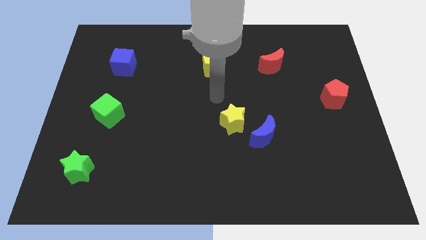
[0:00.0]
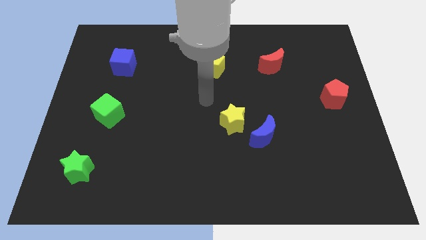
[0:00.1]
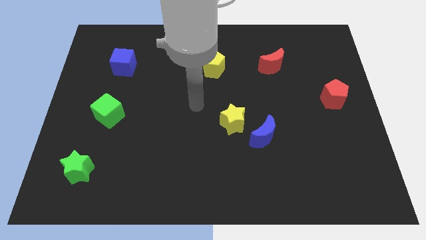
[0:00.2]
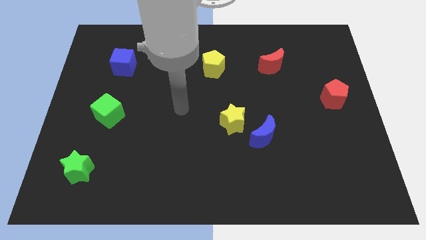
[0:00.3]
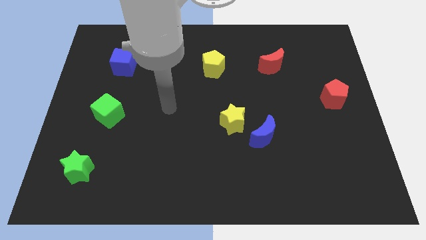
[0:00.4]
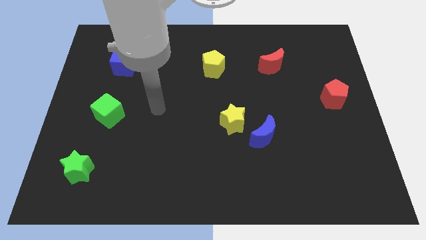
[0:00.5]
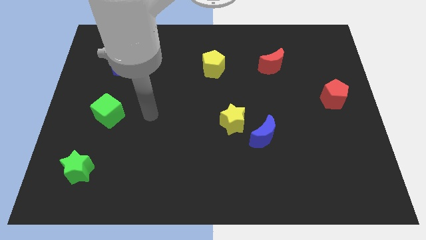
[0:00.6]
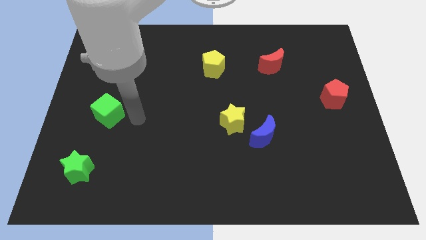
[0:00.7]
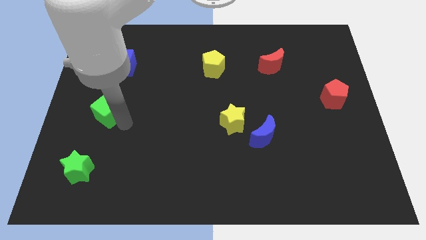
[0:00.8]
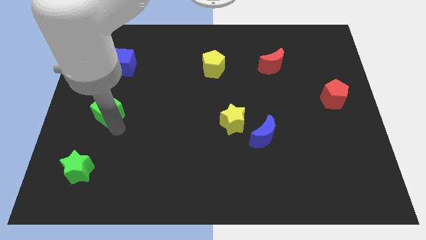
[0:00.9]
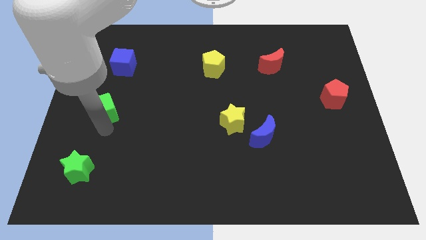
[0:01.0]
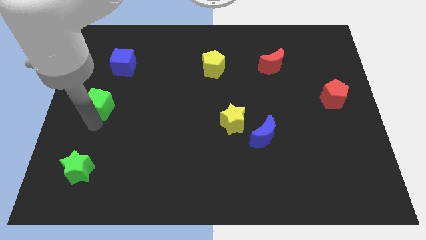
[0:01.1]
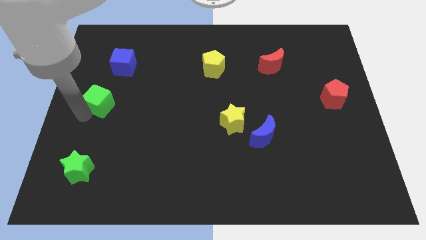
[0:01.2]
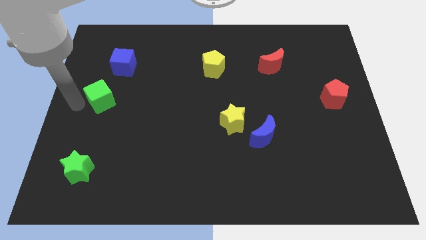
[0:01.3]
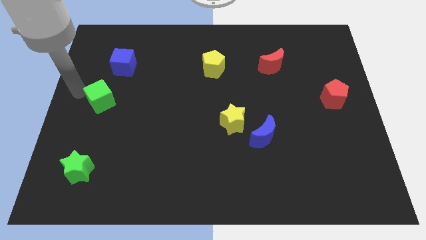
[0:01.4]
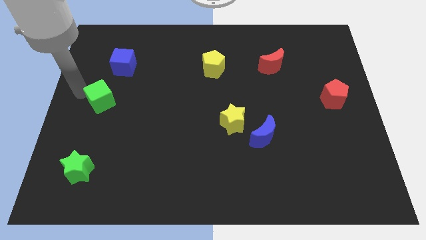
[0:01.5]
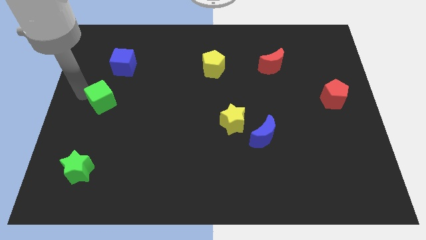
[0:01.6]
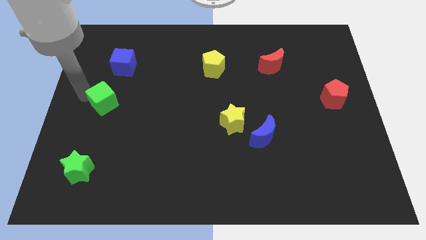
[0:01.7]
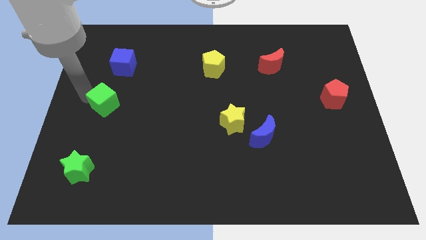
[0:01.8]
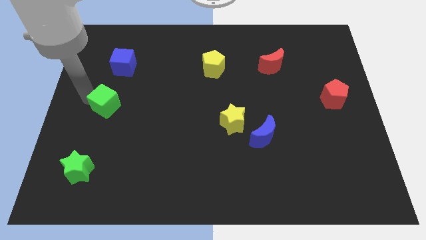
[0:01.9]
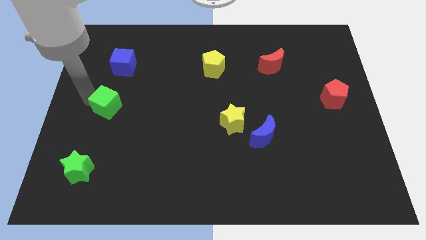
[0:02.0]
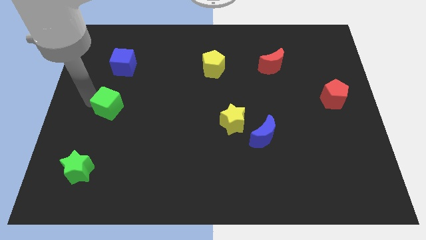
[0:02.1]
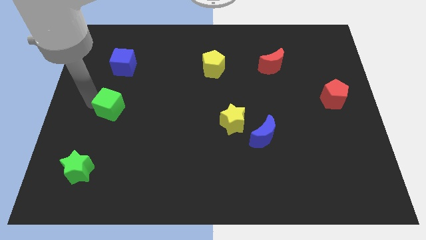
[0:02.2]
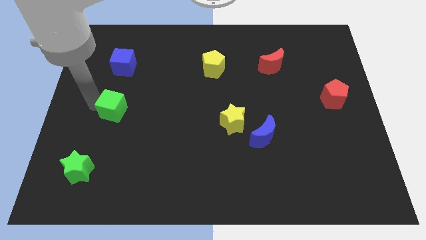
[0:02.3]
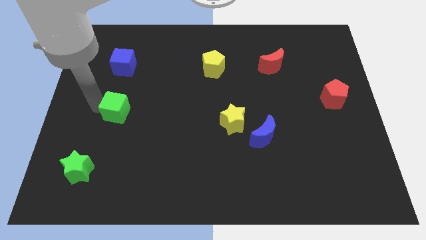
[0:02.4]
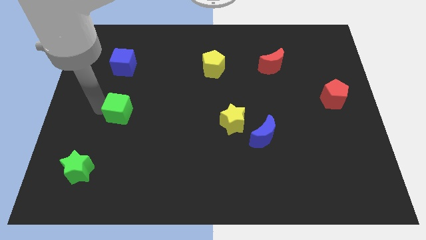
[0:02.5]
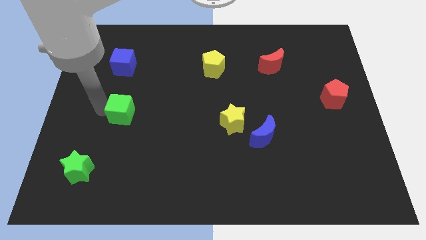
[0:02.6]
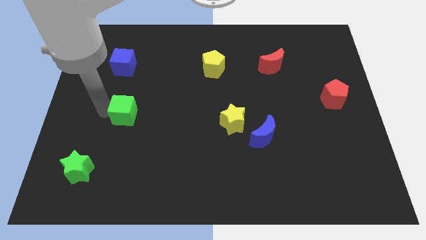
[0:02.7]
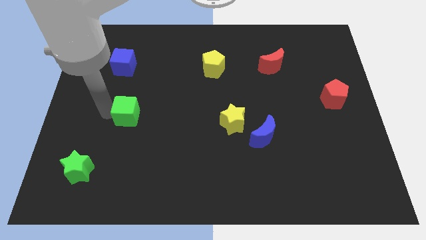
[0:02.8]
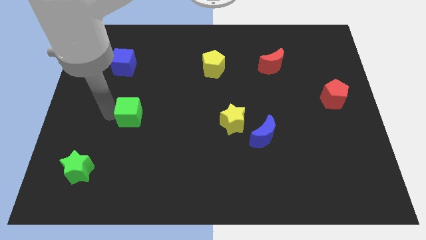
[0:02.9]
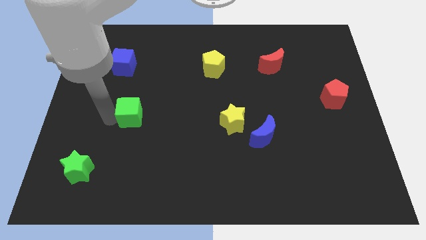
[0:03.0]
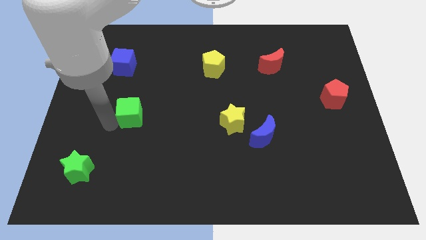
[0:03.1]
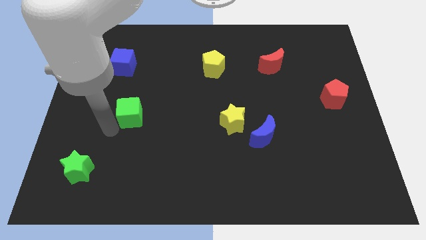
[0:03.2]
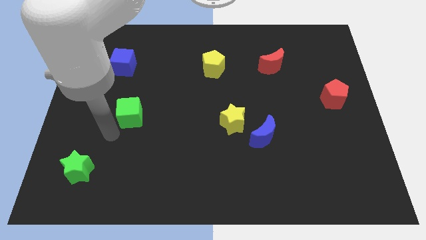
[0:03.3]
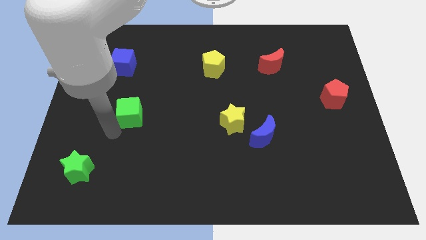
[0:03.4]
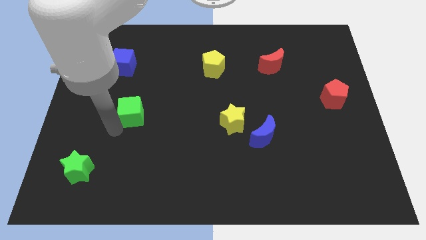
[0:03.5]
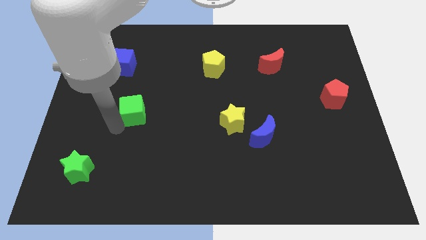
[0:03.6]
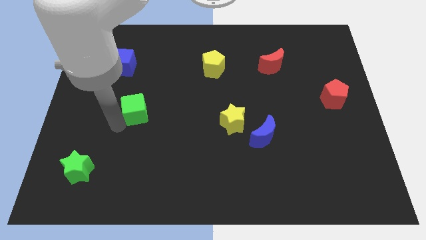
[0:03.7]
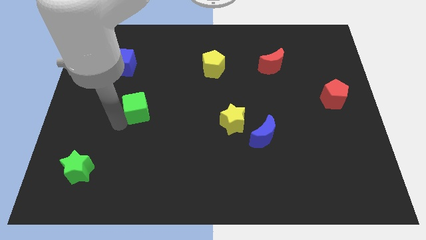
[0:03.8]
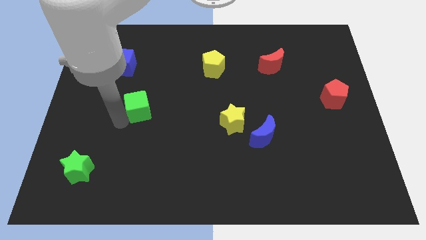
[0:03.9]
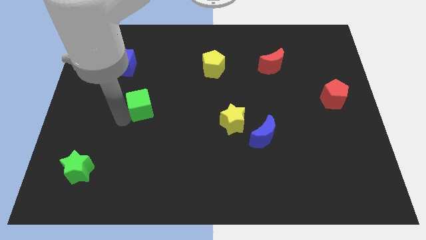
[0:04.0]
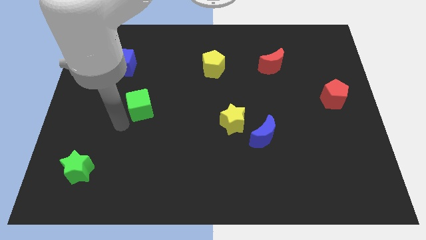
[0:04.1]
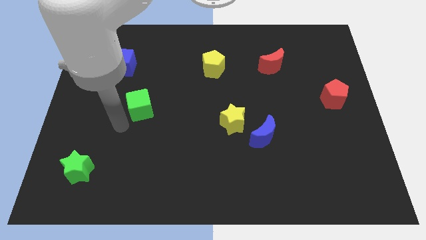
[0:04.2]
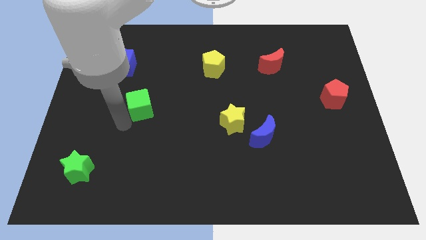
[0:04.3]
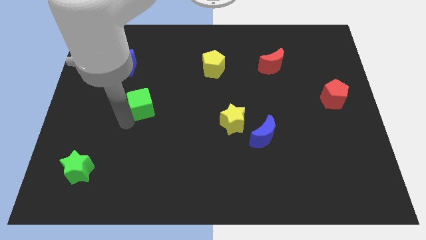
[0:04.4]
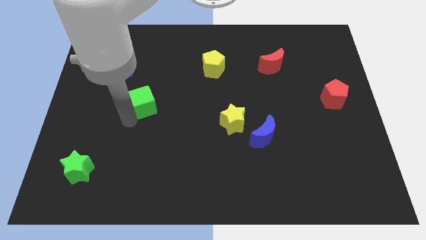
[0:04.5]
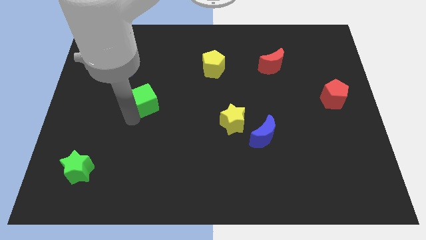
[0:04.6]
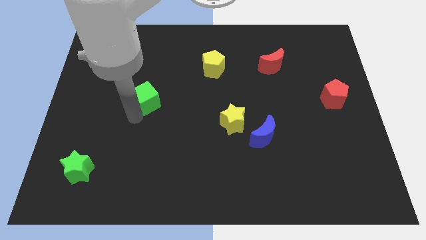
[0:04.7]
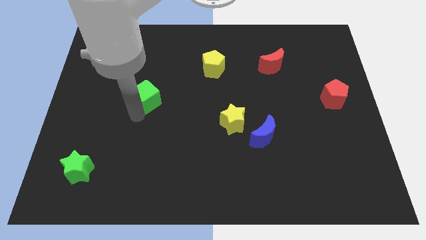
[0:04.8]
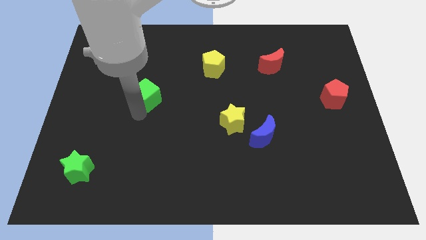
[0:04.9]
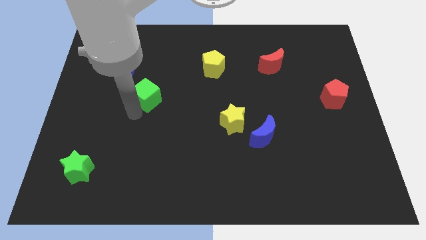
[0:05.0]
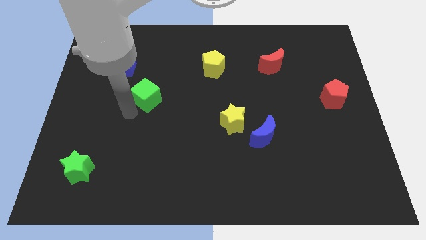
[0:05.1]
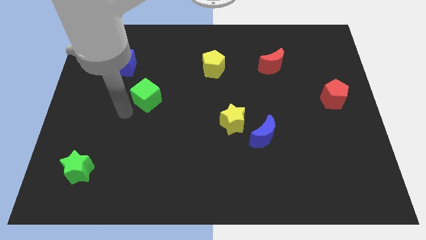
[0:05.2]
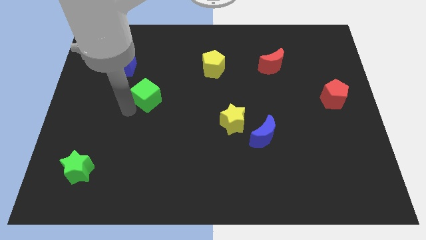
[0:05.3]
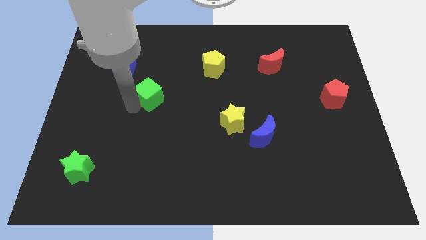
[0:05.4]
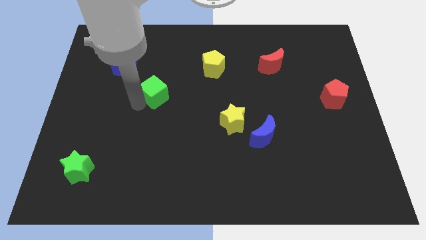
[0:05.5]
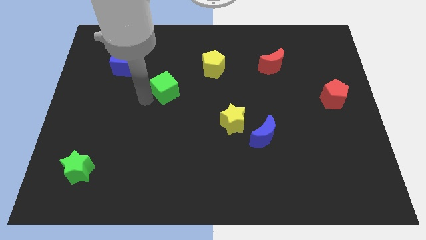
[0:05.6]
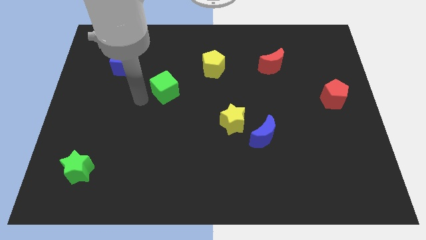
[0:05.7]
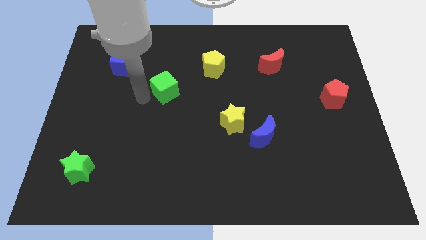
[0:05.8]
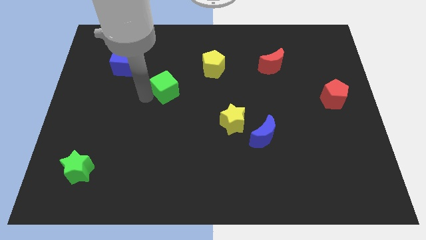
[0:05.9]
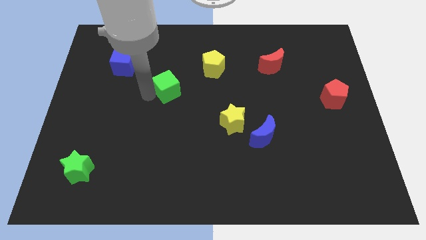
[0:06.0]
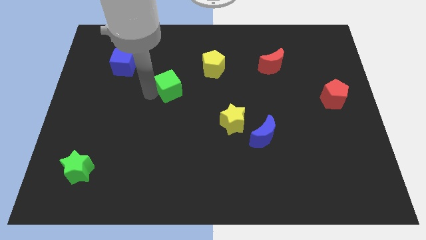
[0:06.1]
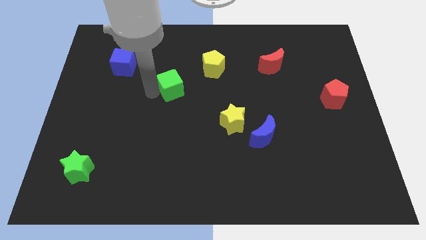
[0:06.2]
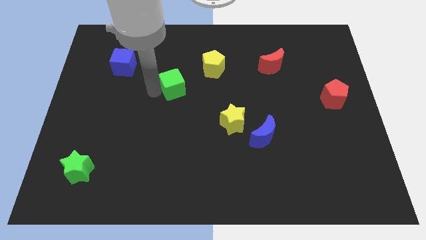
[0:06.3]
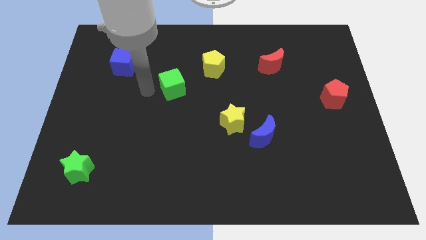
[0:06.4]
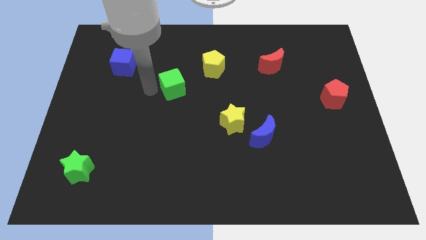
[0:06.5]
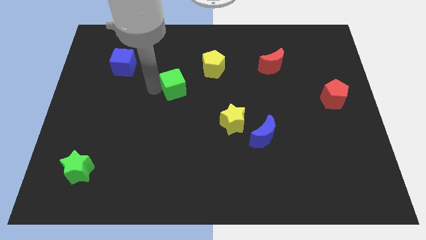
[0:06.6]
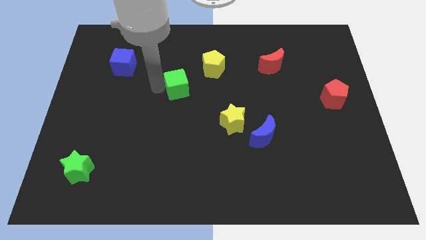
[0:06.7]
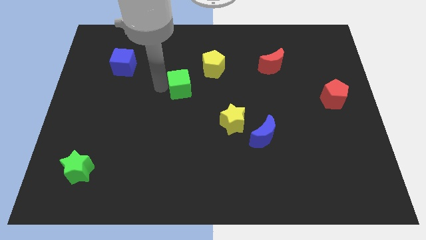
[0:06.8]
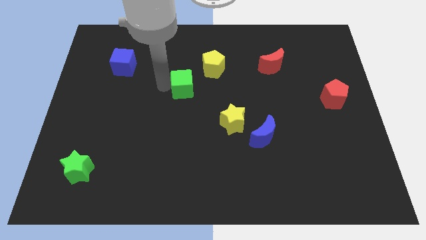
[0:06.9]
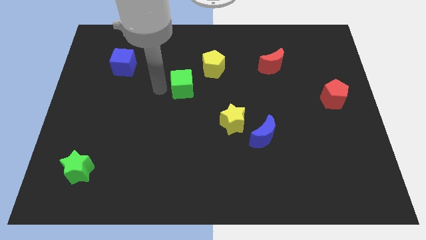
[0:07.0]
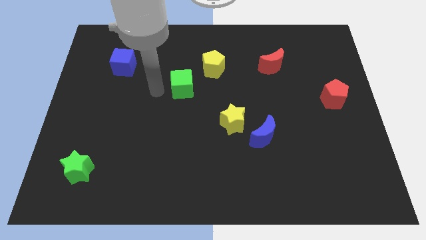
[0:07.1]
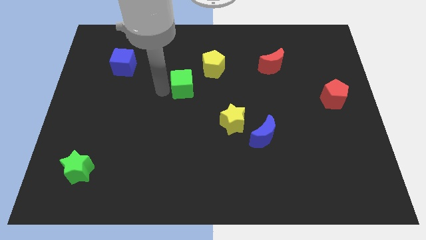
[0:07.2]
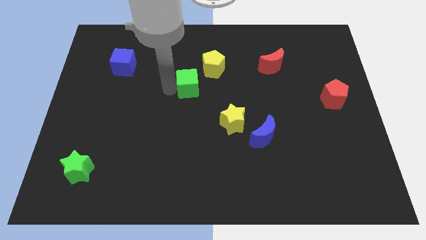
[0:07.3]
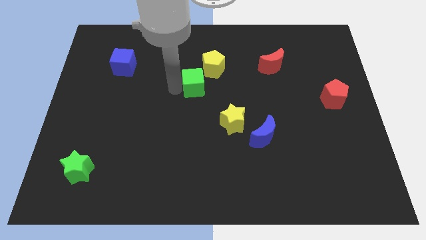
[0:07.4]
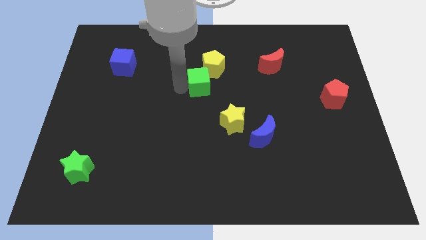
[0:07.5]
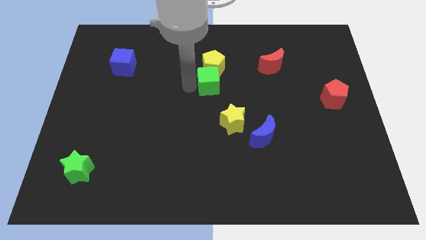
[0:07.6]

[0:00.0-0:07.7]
move the green cube to the bottom right of the yellow pentagon
